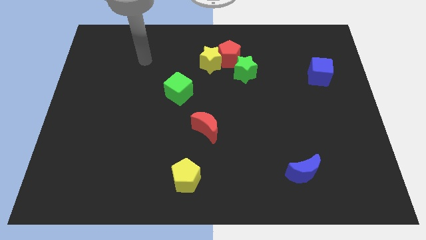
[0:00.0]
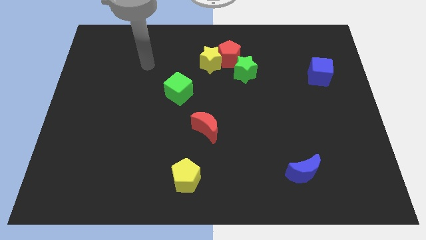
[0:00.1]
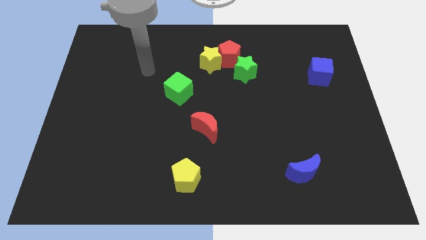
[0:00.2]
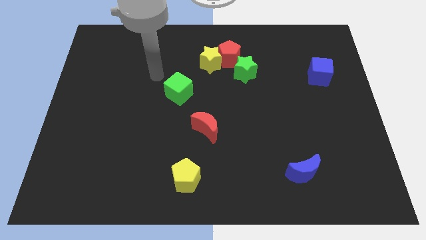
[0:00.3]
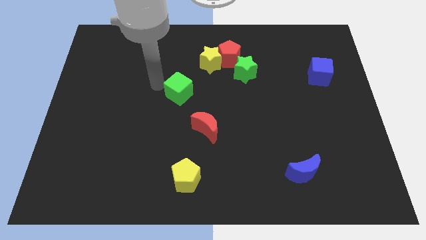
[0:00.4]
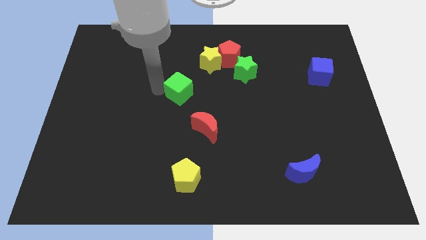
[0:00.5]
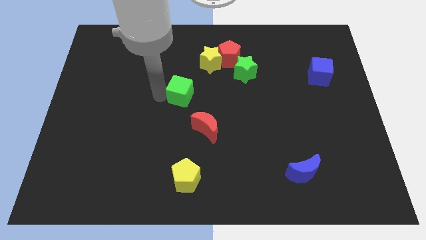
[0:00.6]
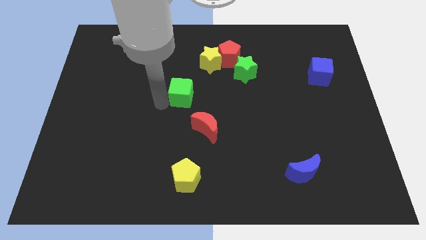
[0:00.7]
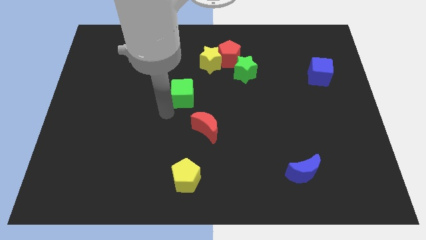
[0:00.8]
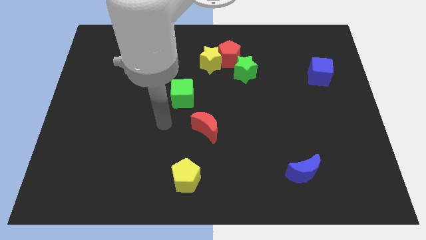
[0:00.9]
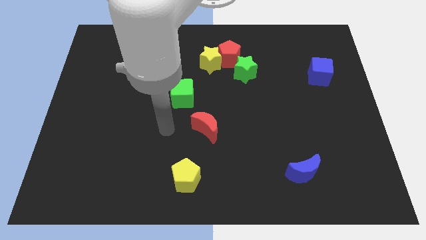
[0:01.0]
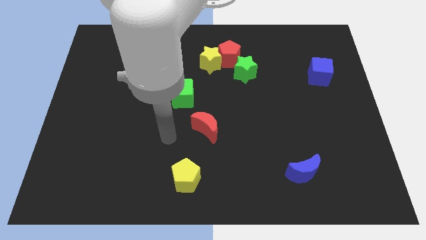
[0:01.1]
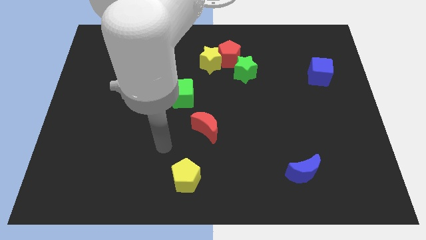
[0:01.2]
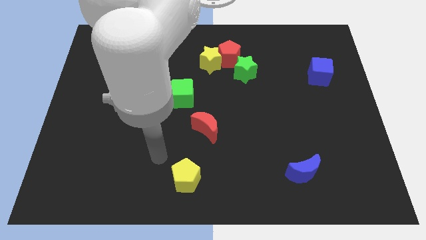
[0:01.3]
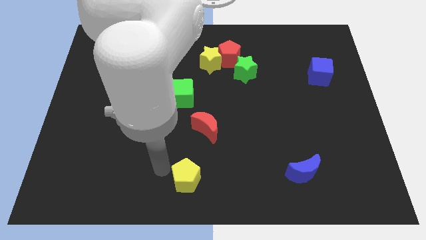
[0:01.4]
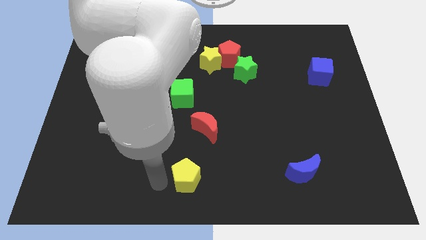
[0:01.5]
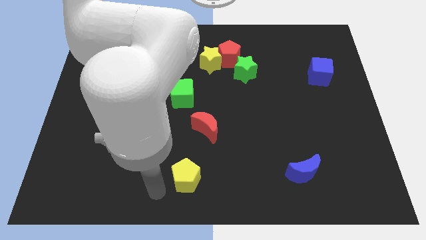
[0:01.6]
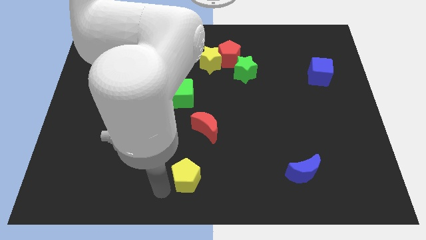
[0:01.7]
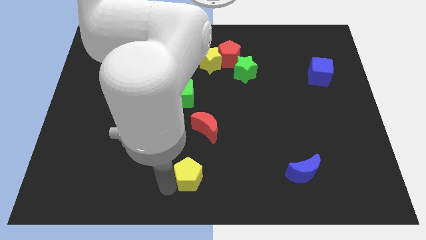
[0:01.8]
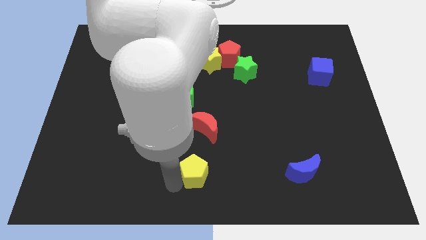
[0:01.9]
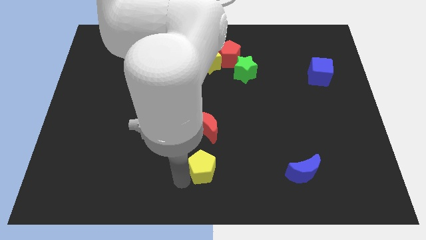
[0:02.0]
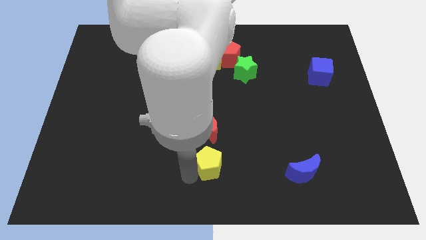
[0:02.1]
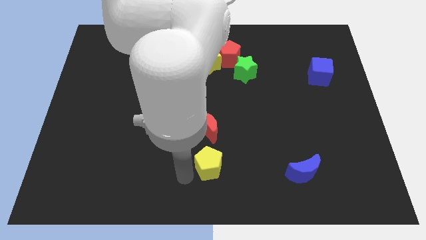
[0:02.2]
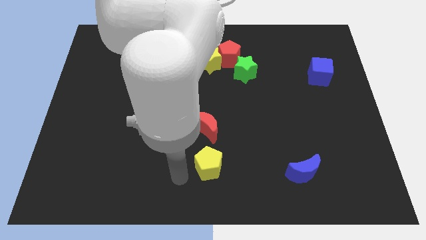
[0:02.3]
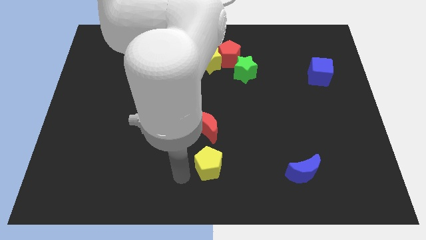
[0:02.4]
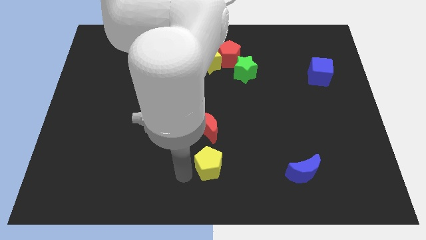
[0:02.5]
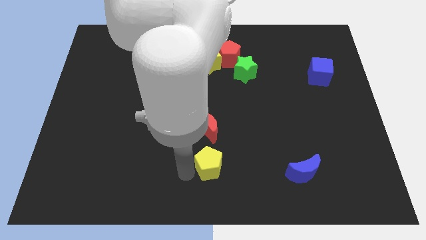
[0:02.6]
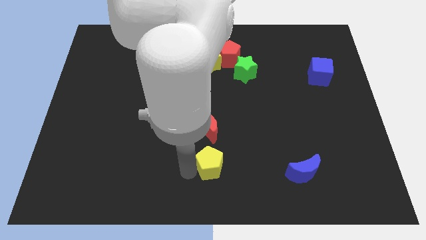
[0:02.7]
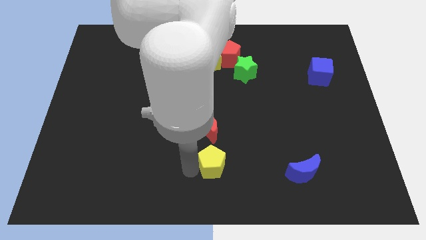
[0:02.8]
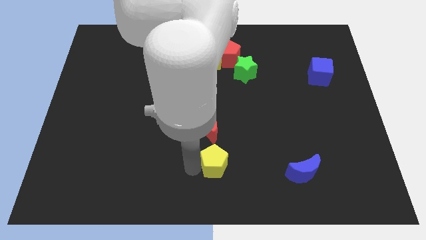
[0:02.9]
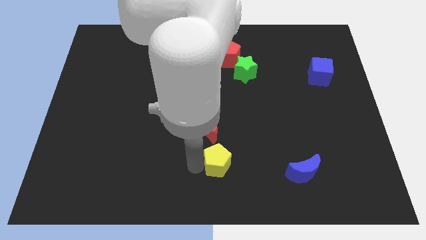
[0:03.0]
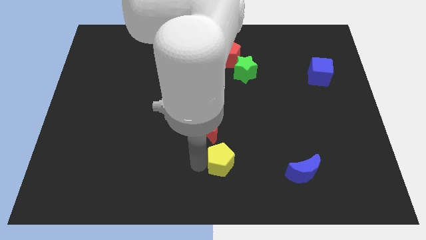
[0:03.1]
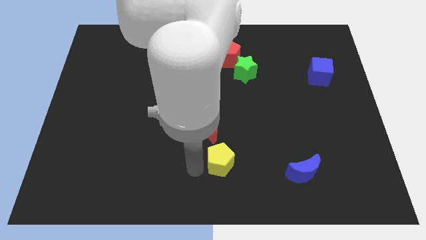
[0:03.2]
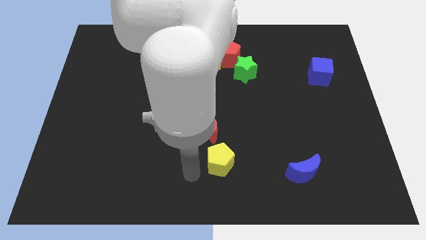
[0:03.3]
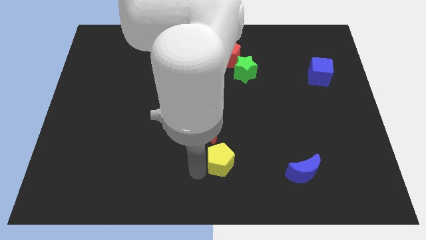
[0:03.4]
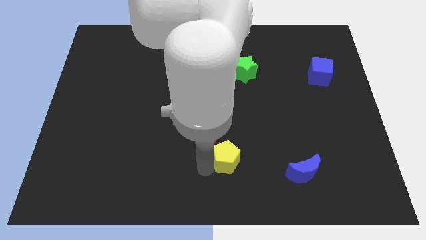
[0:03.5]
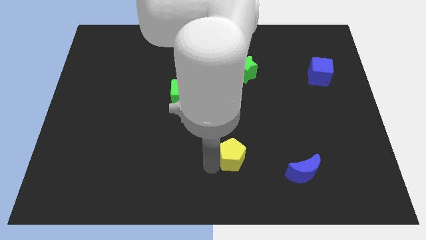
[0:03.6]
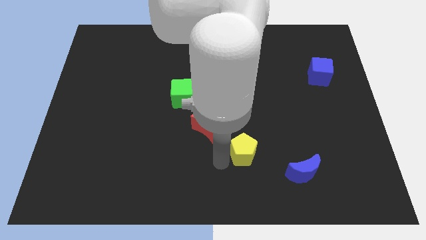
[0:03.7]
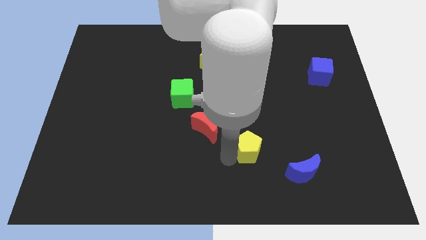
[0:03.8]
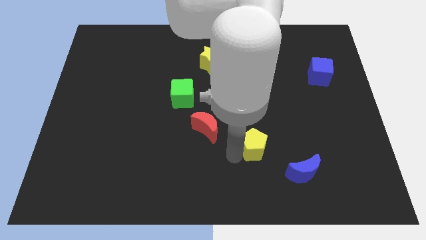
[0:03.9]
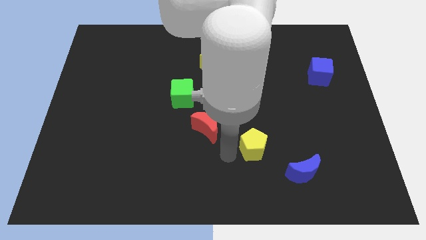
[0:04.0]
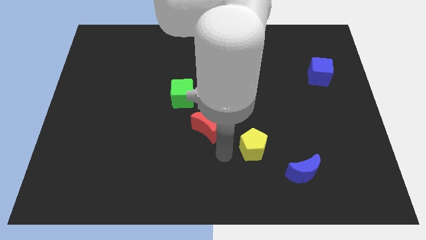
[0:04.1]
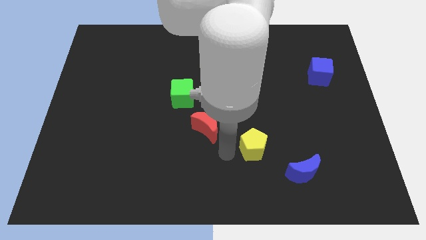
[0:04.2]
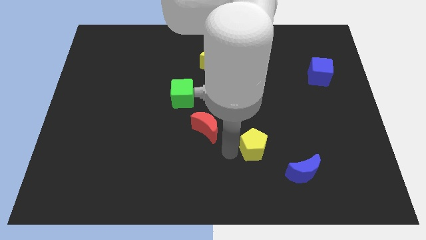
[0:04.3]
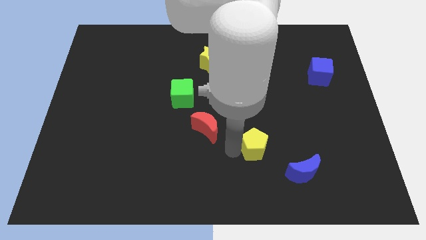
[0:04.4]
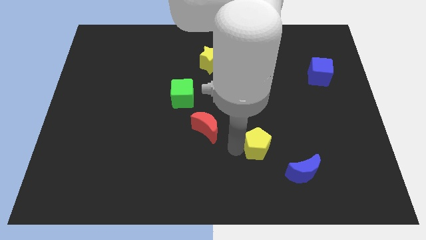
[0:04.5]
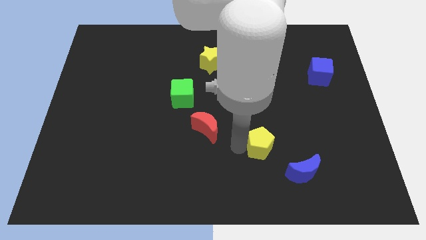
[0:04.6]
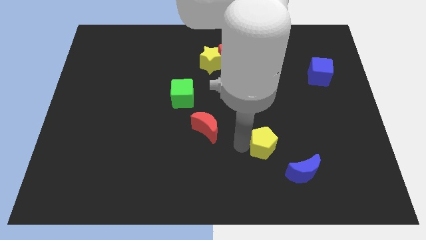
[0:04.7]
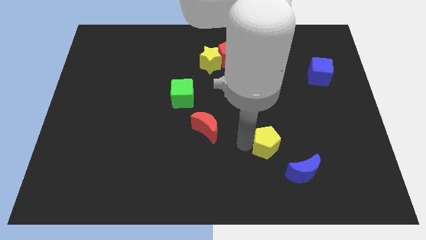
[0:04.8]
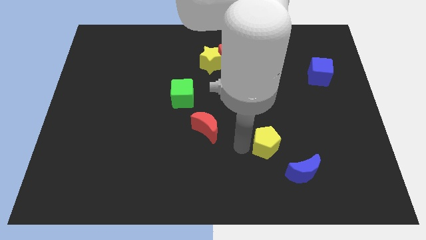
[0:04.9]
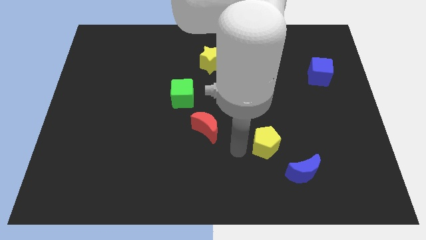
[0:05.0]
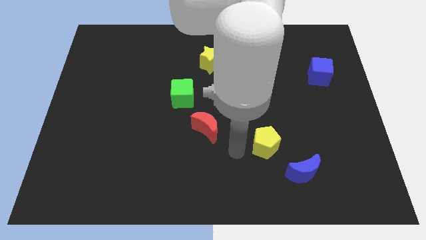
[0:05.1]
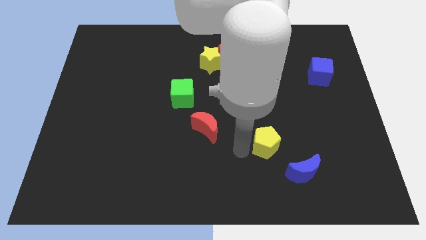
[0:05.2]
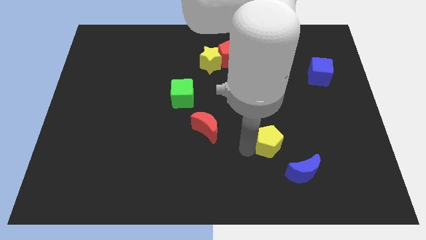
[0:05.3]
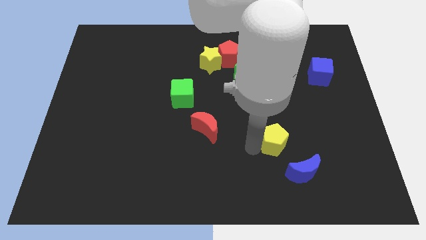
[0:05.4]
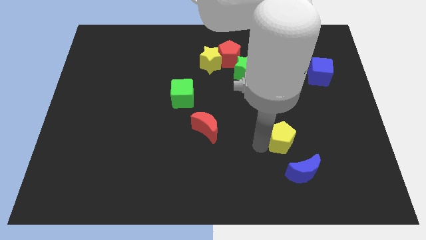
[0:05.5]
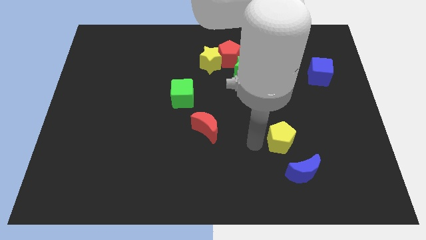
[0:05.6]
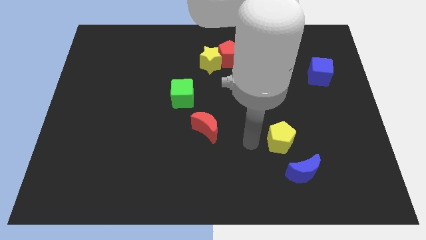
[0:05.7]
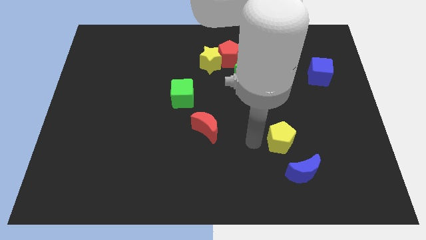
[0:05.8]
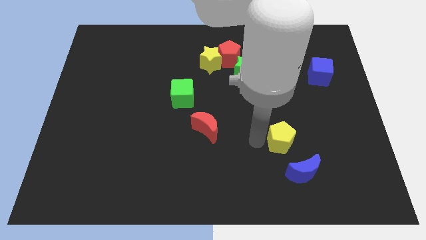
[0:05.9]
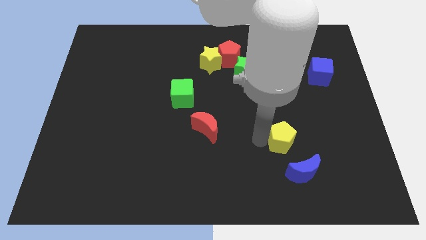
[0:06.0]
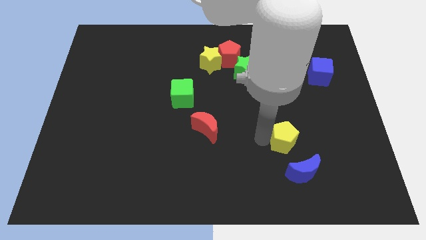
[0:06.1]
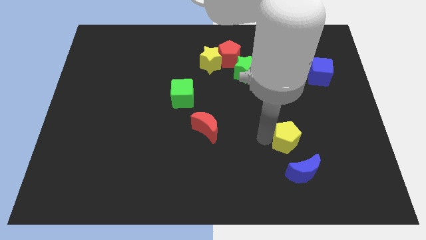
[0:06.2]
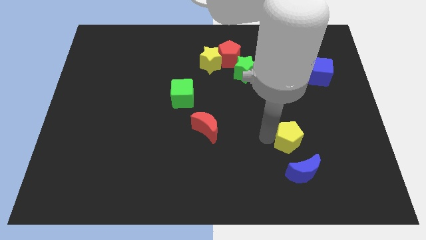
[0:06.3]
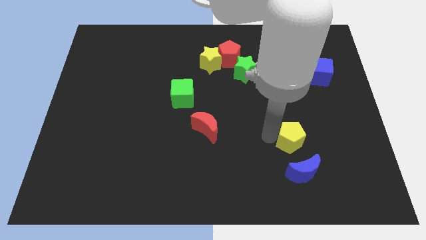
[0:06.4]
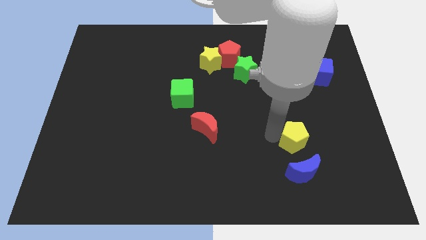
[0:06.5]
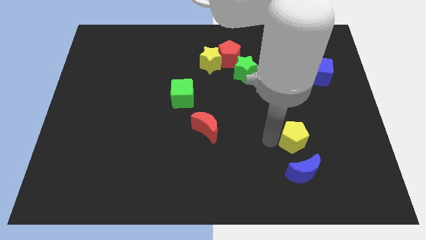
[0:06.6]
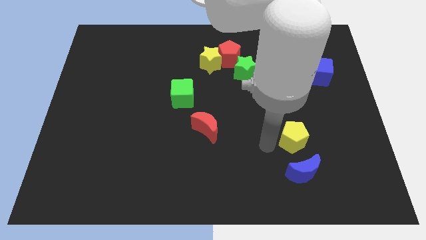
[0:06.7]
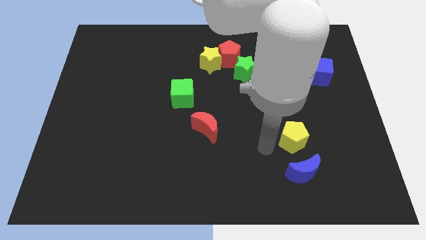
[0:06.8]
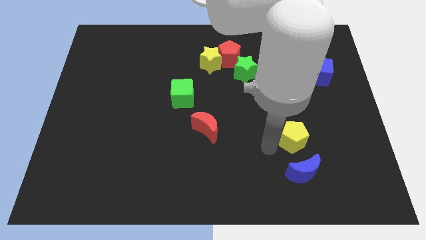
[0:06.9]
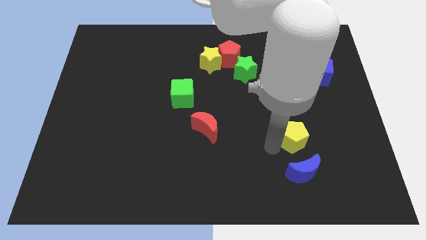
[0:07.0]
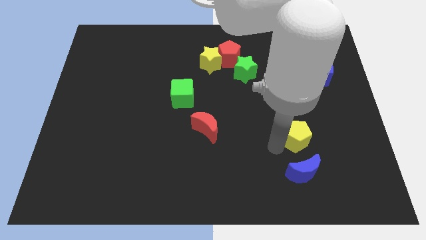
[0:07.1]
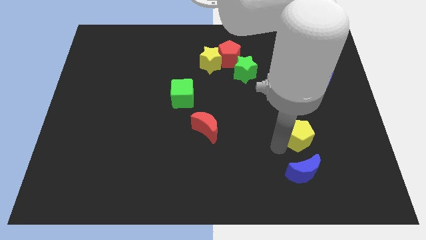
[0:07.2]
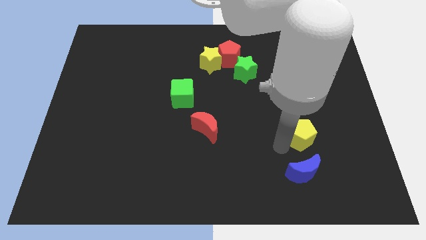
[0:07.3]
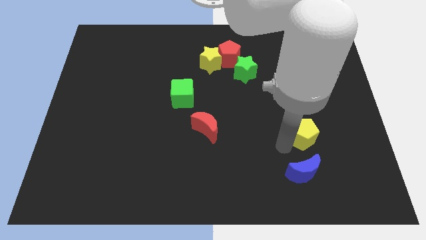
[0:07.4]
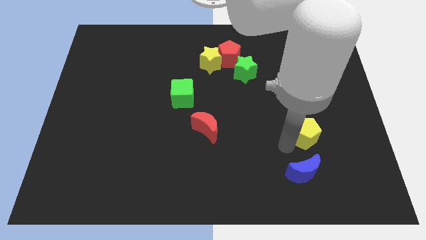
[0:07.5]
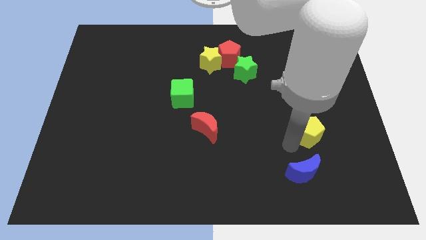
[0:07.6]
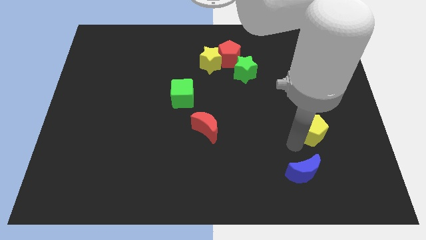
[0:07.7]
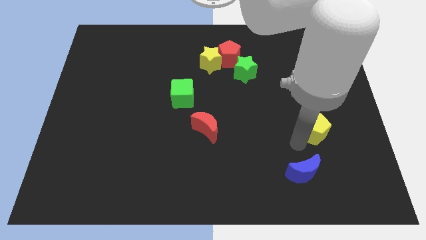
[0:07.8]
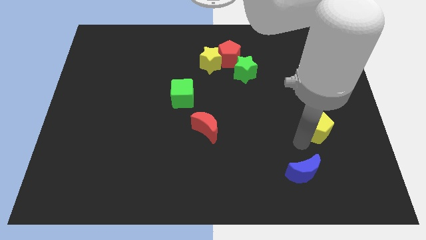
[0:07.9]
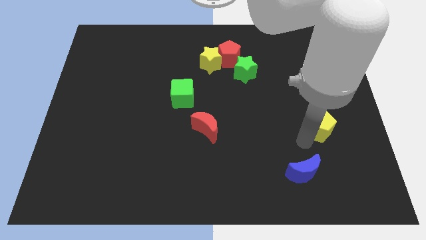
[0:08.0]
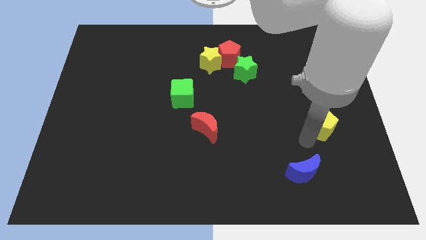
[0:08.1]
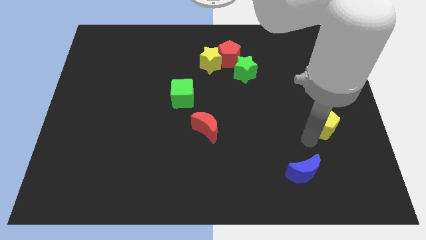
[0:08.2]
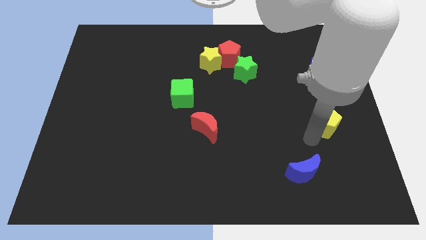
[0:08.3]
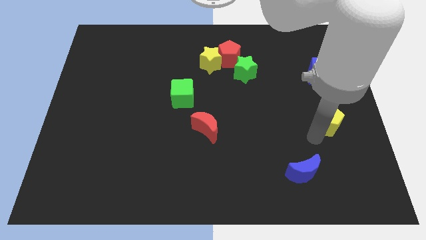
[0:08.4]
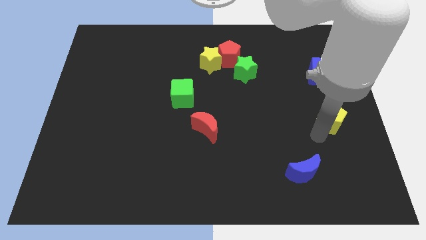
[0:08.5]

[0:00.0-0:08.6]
move the yellow pentagon to the center right
